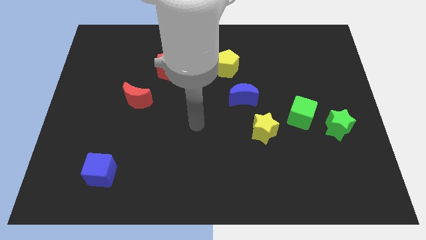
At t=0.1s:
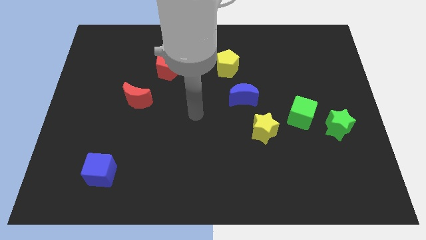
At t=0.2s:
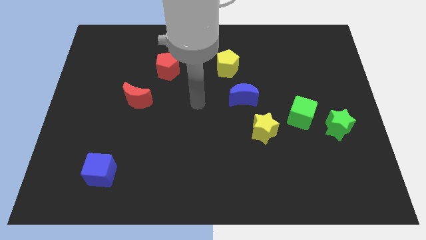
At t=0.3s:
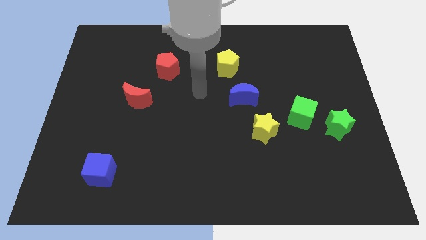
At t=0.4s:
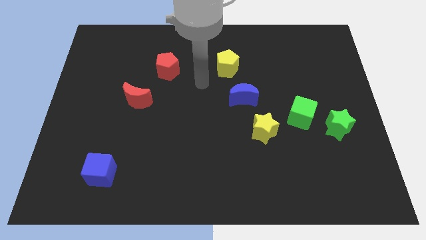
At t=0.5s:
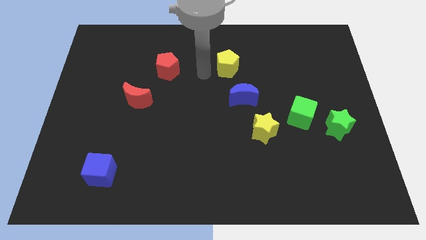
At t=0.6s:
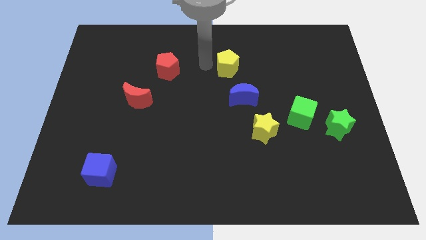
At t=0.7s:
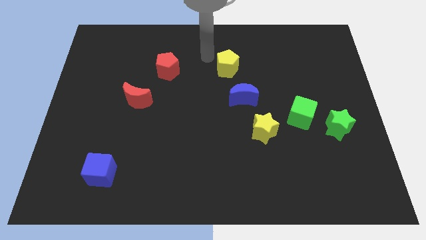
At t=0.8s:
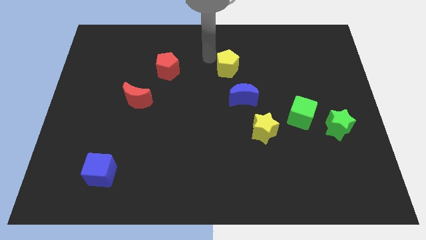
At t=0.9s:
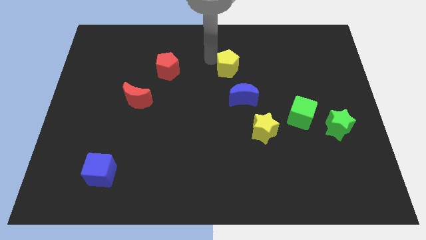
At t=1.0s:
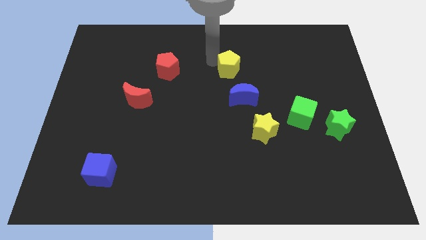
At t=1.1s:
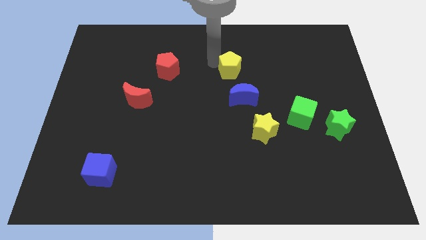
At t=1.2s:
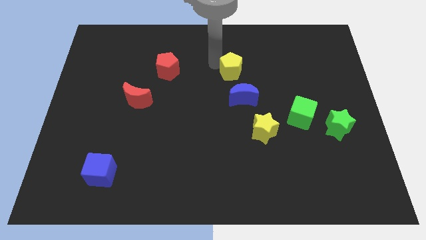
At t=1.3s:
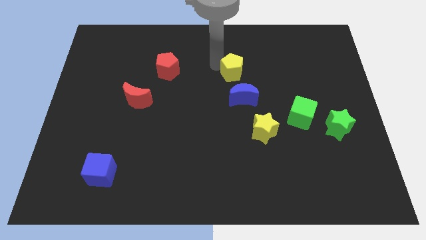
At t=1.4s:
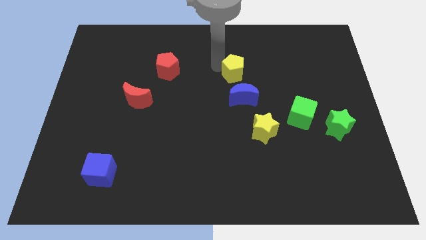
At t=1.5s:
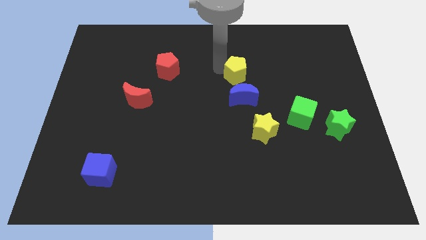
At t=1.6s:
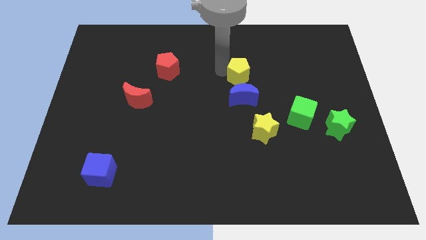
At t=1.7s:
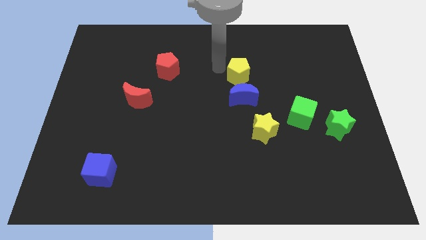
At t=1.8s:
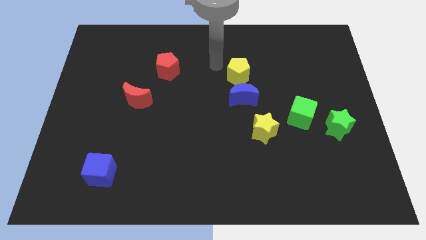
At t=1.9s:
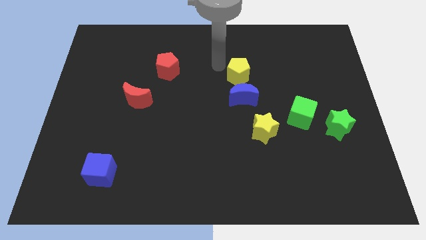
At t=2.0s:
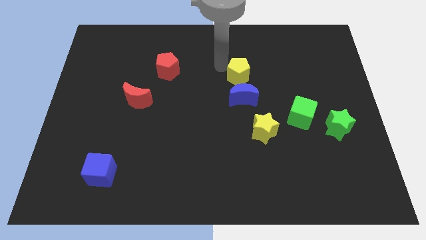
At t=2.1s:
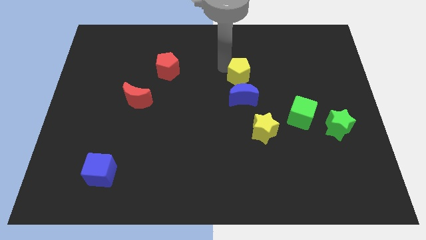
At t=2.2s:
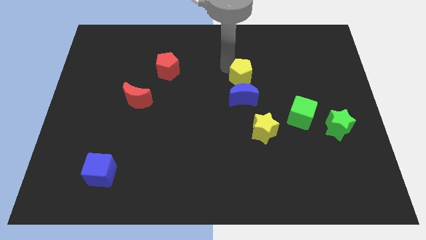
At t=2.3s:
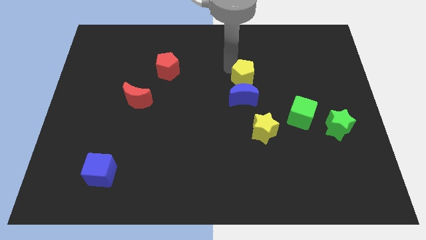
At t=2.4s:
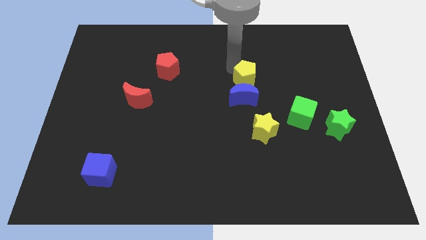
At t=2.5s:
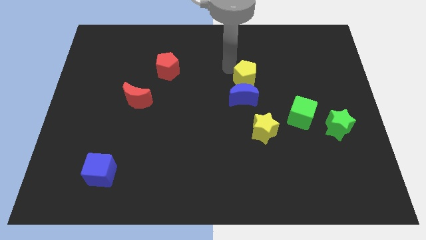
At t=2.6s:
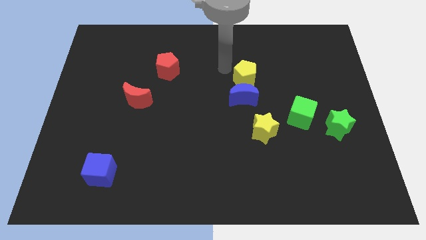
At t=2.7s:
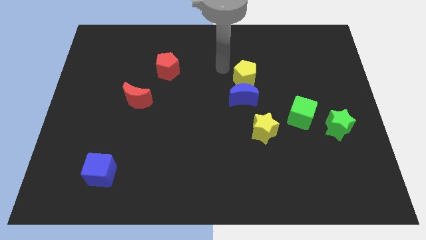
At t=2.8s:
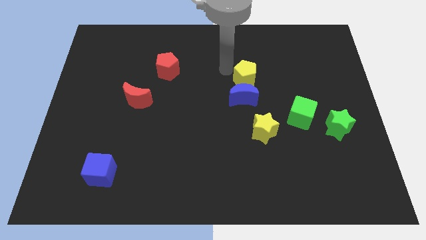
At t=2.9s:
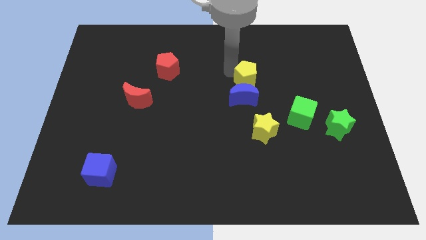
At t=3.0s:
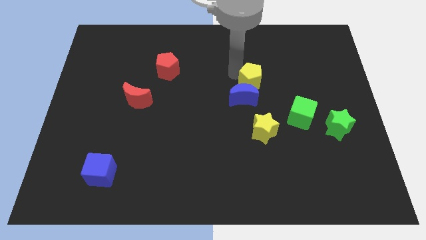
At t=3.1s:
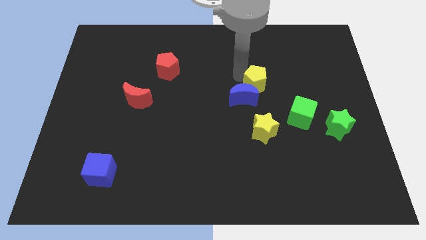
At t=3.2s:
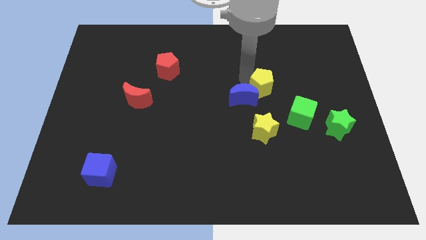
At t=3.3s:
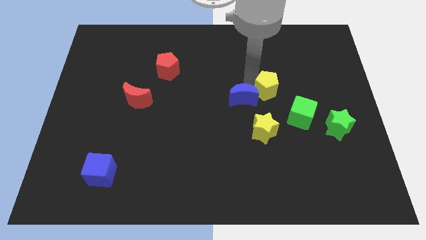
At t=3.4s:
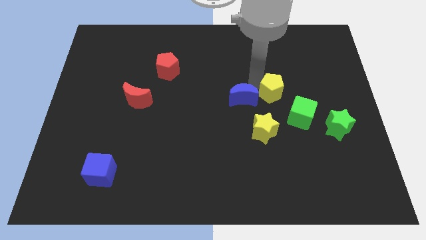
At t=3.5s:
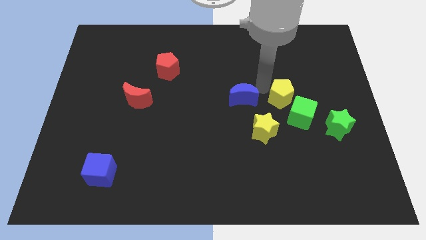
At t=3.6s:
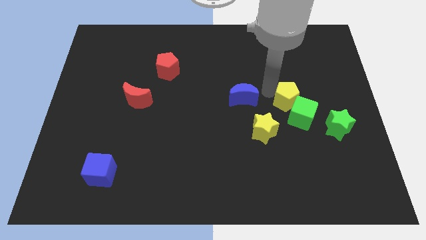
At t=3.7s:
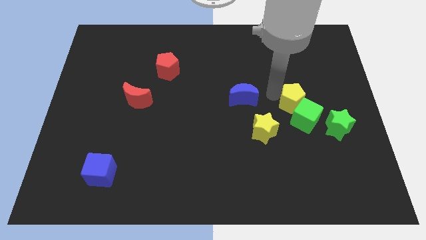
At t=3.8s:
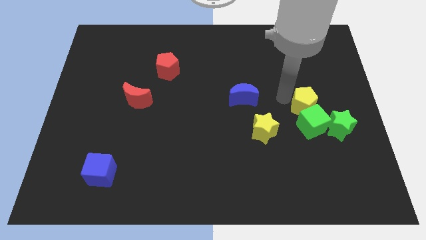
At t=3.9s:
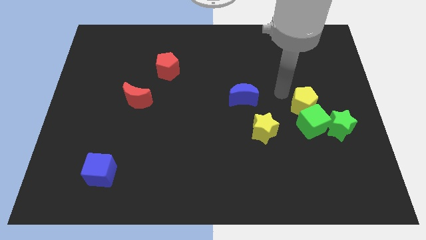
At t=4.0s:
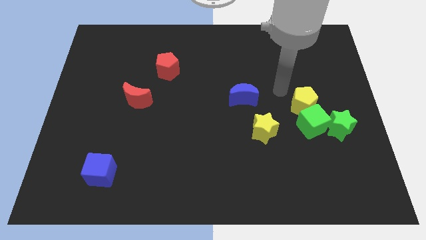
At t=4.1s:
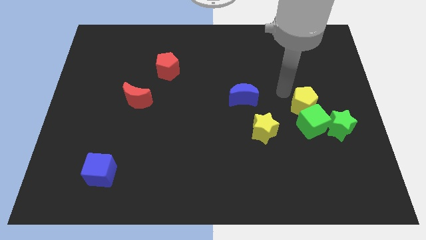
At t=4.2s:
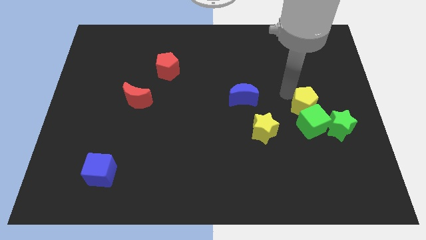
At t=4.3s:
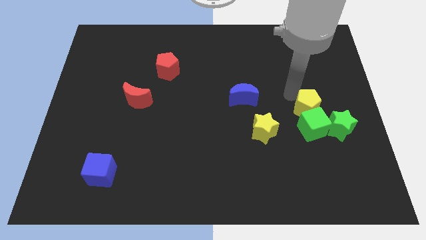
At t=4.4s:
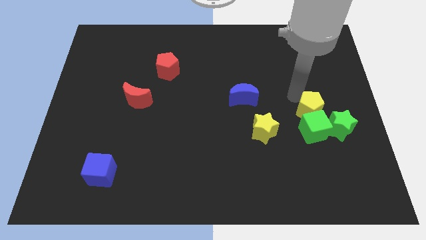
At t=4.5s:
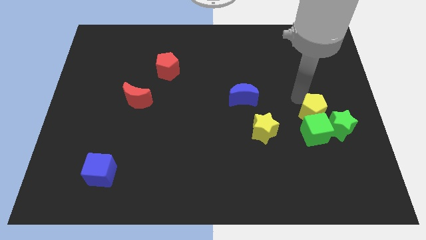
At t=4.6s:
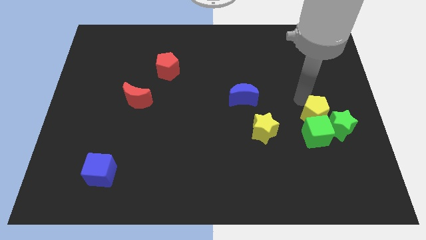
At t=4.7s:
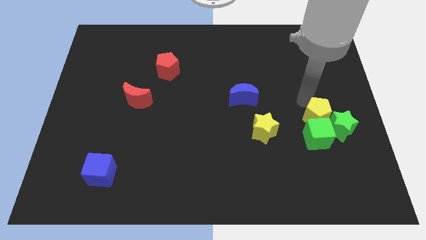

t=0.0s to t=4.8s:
push the yellow pentagon towards the green star

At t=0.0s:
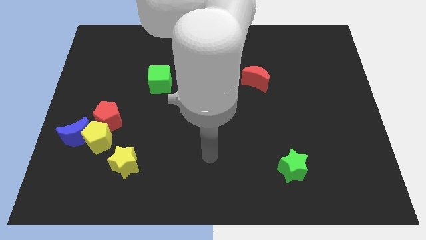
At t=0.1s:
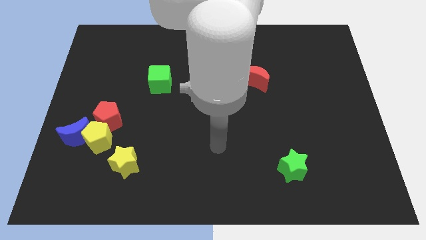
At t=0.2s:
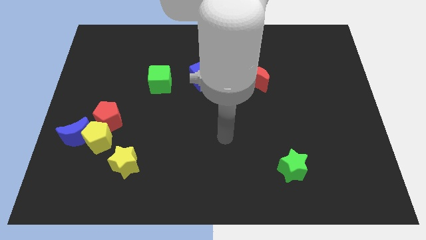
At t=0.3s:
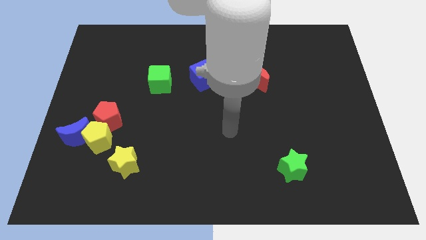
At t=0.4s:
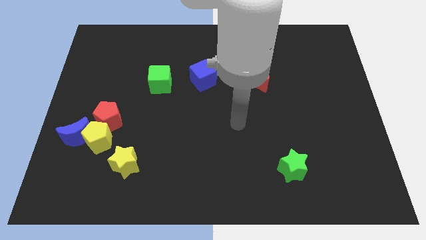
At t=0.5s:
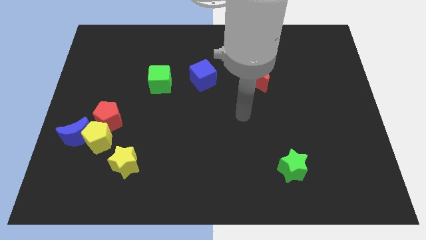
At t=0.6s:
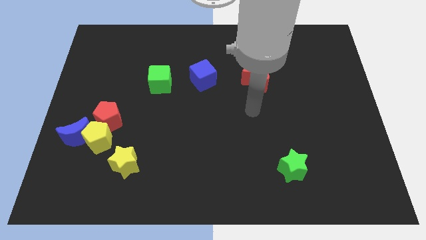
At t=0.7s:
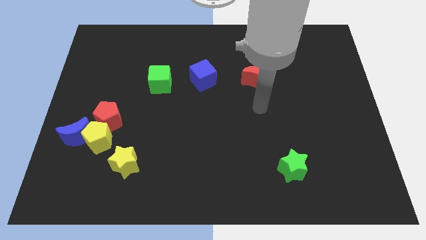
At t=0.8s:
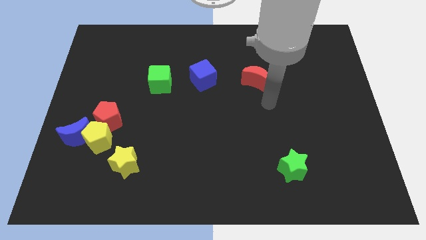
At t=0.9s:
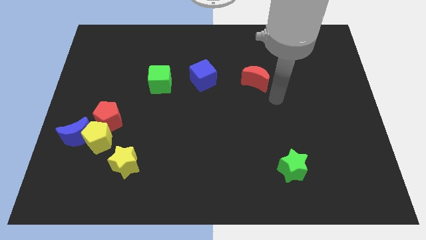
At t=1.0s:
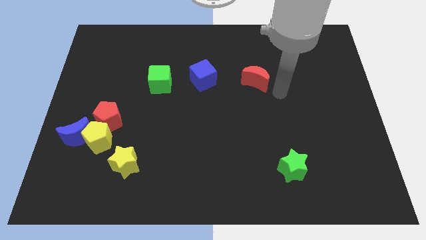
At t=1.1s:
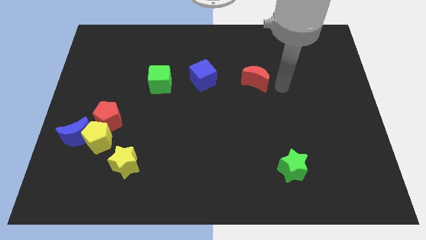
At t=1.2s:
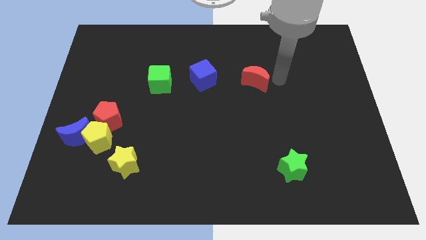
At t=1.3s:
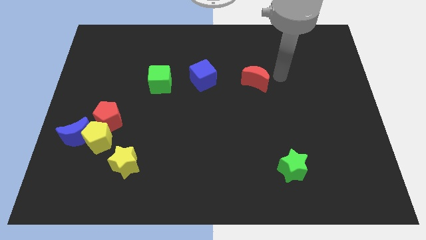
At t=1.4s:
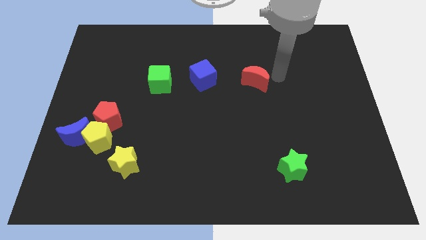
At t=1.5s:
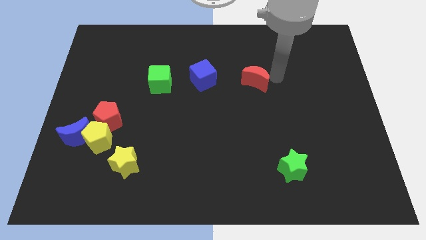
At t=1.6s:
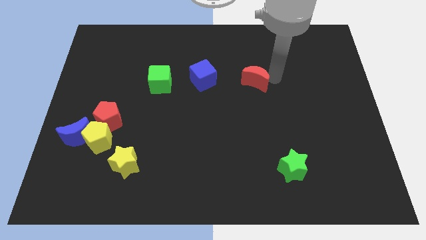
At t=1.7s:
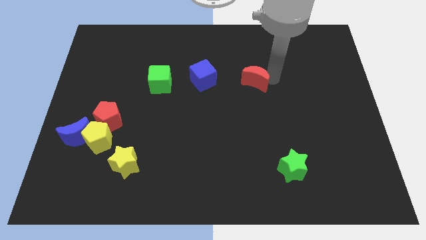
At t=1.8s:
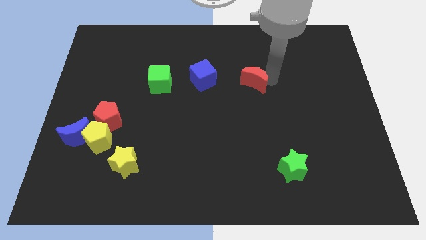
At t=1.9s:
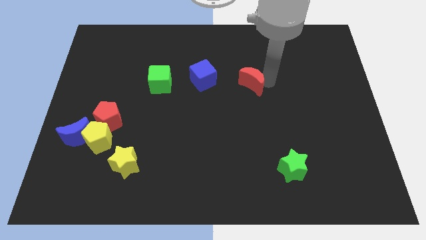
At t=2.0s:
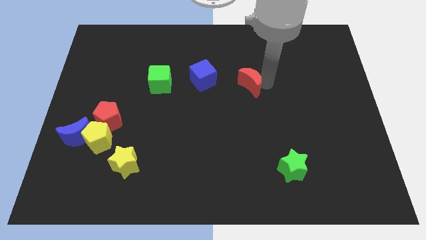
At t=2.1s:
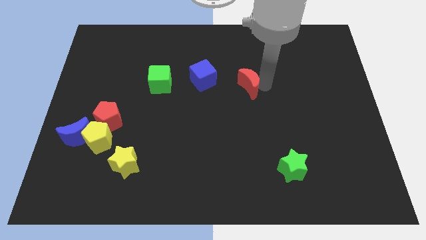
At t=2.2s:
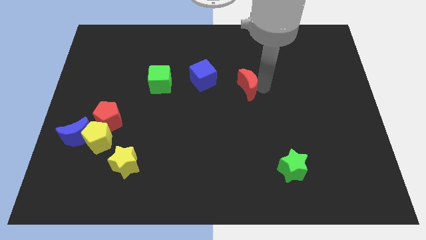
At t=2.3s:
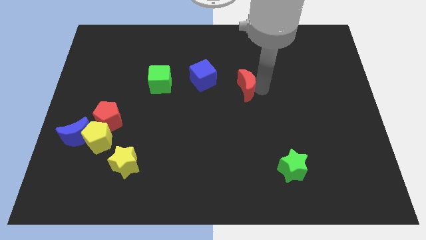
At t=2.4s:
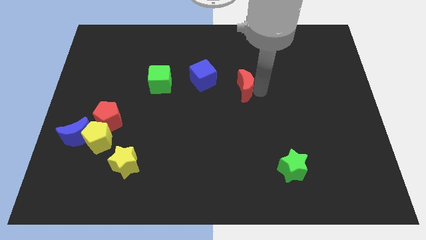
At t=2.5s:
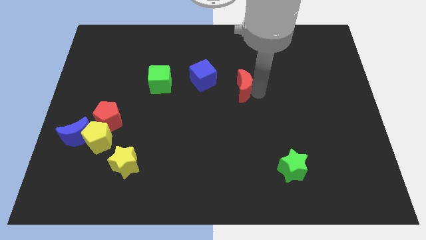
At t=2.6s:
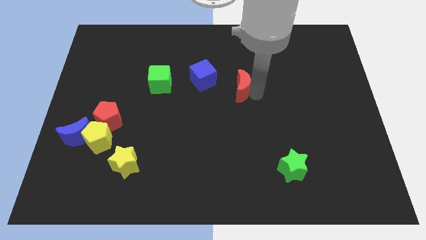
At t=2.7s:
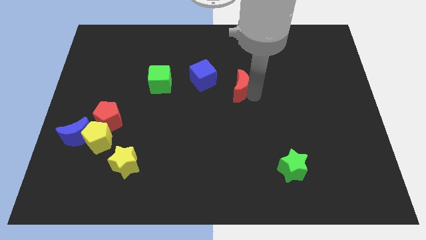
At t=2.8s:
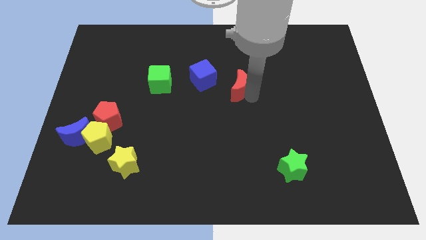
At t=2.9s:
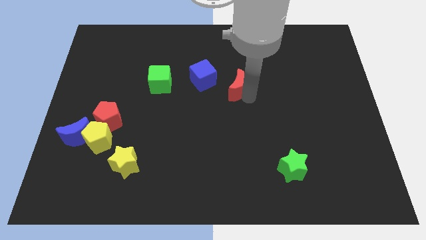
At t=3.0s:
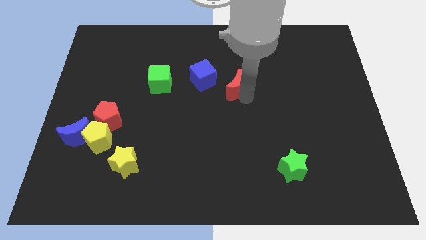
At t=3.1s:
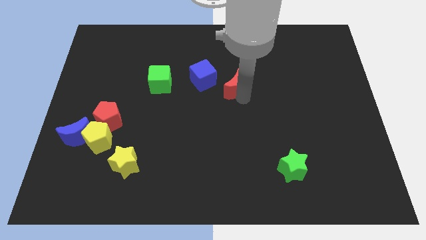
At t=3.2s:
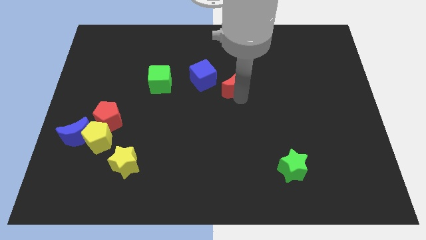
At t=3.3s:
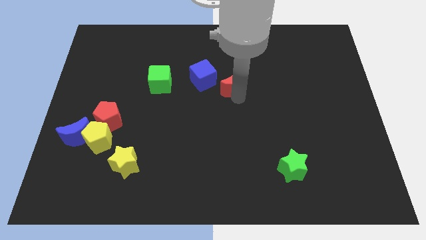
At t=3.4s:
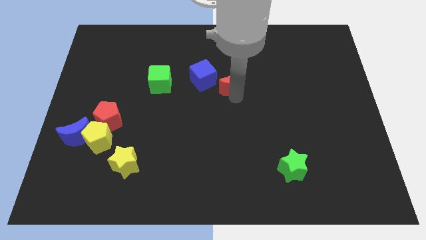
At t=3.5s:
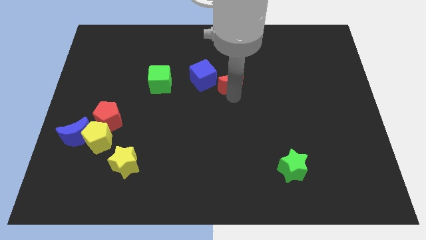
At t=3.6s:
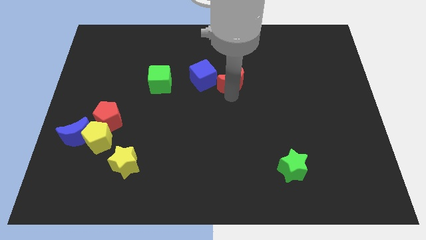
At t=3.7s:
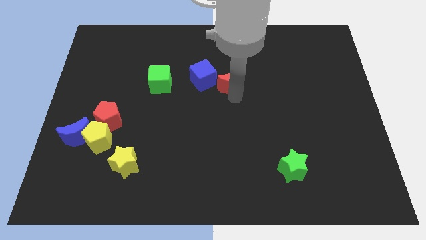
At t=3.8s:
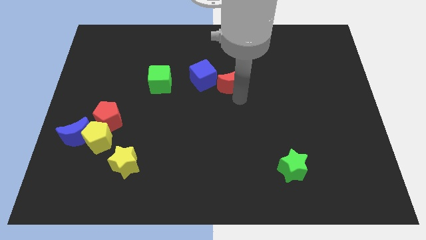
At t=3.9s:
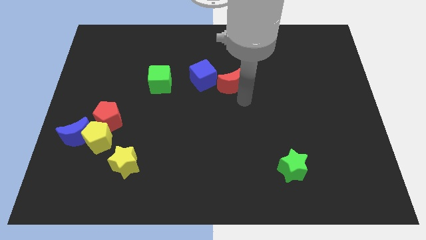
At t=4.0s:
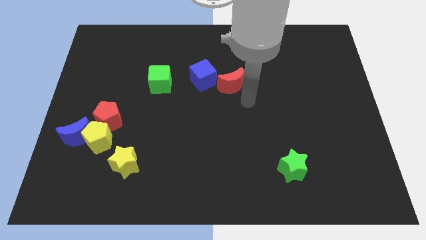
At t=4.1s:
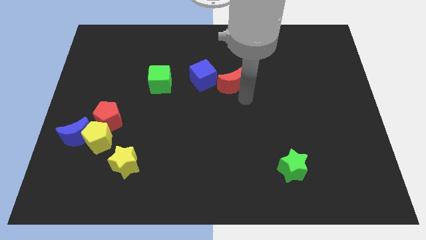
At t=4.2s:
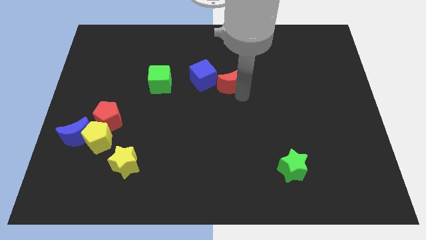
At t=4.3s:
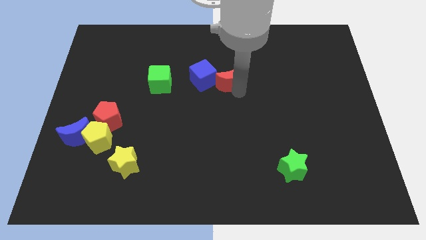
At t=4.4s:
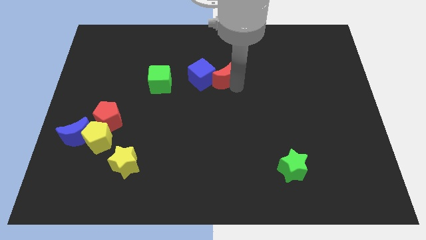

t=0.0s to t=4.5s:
push the red moon next to the blue cube
